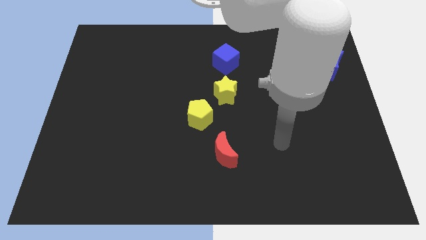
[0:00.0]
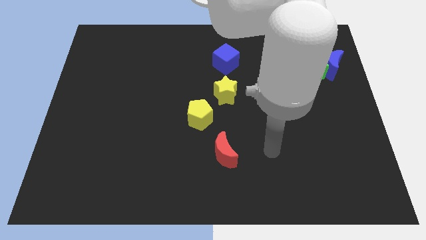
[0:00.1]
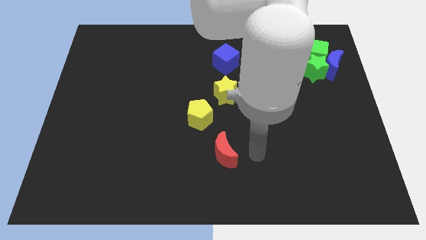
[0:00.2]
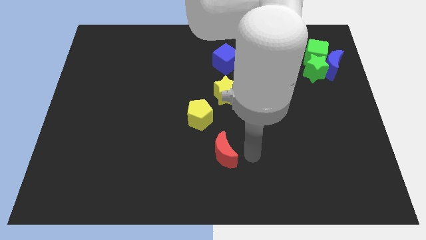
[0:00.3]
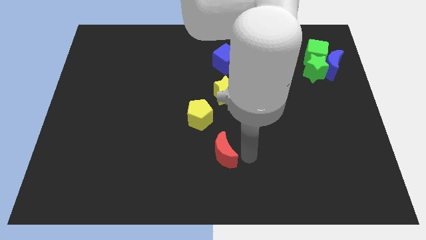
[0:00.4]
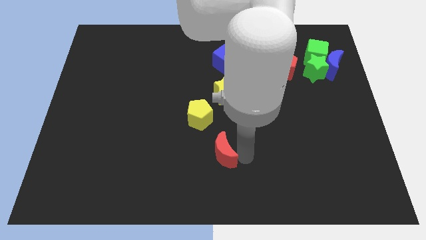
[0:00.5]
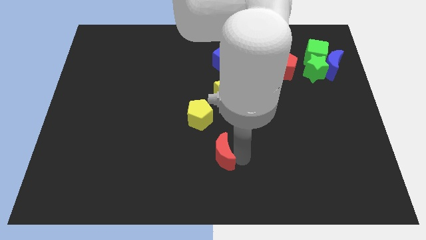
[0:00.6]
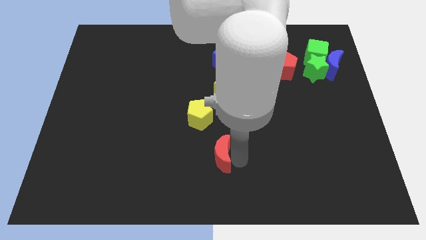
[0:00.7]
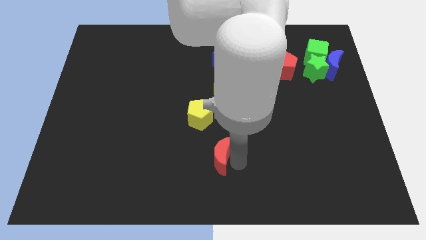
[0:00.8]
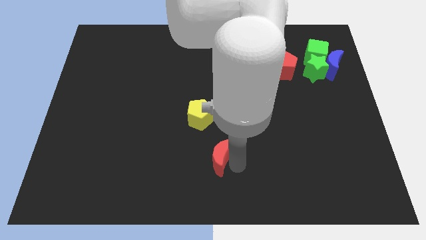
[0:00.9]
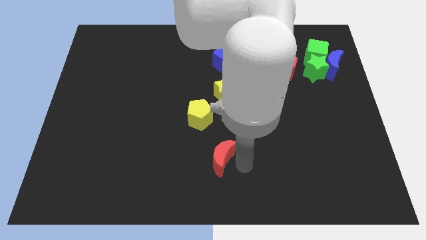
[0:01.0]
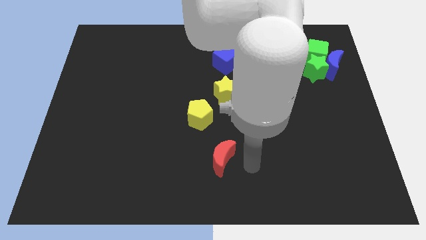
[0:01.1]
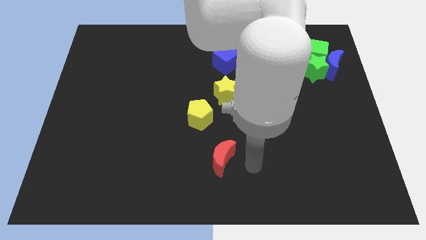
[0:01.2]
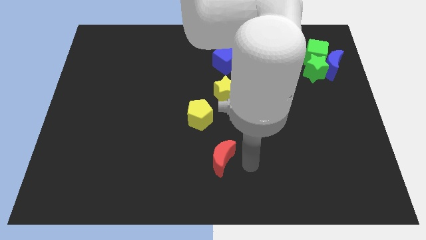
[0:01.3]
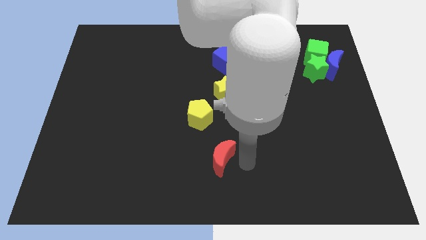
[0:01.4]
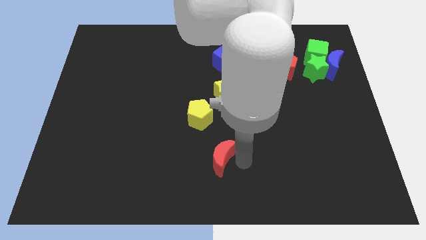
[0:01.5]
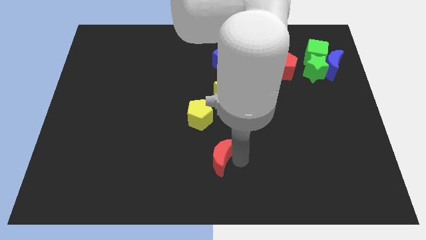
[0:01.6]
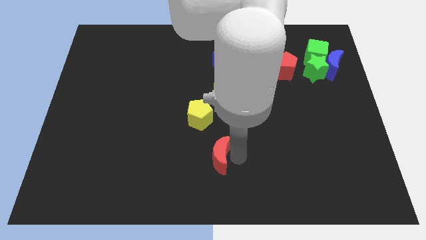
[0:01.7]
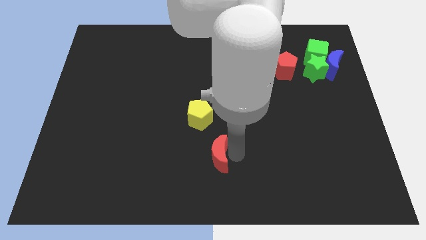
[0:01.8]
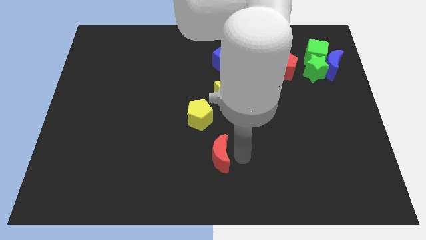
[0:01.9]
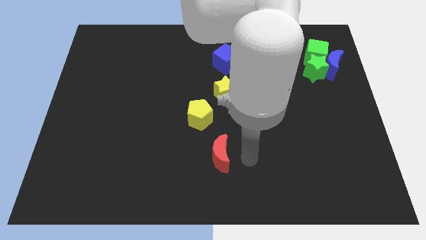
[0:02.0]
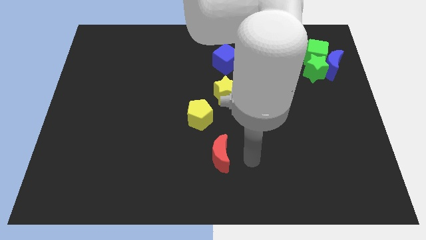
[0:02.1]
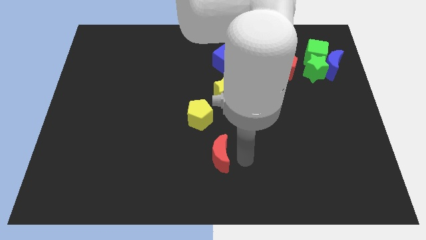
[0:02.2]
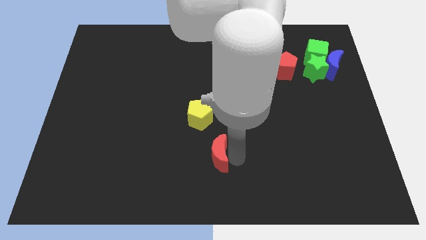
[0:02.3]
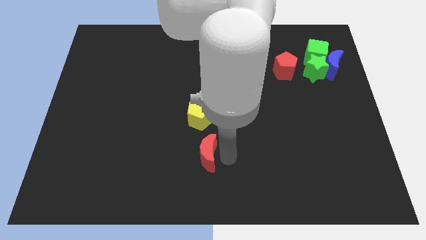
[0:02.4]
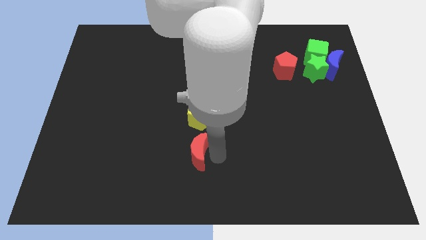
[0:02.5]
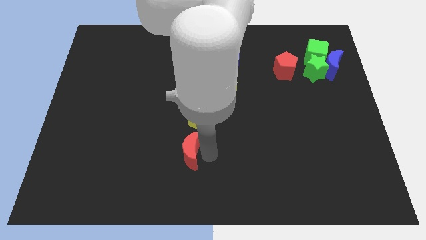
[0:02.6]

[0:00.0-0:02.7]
slide the red moon a little left

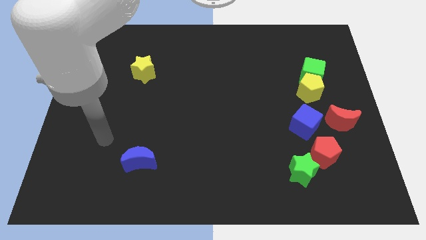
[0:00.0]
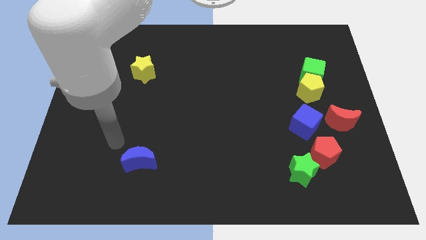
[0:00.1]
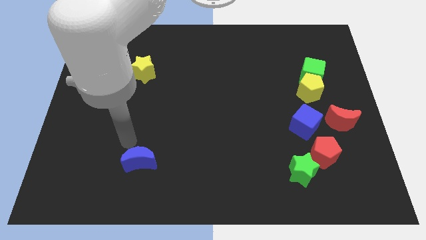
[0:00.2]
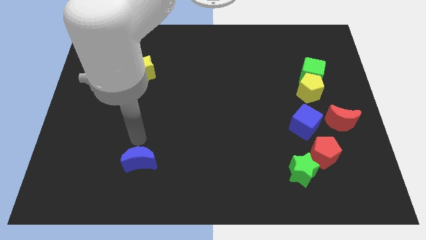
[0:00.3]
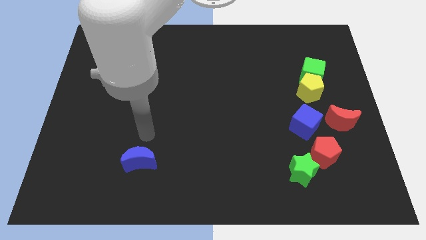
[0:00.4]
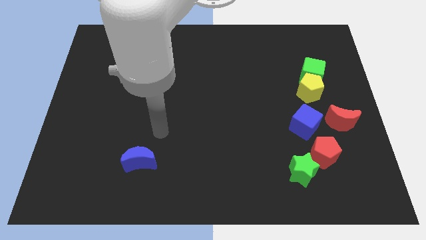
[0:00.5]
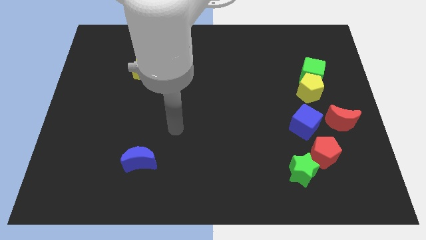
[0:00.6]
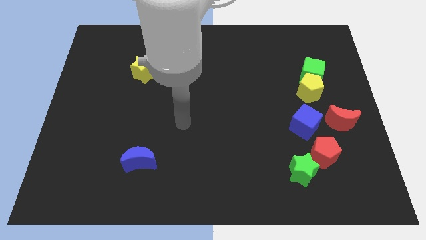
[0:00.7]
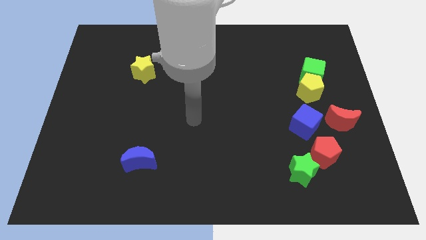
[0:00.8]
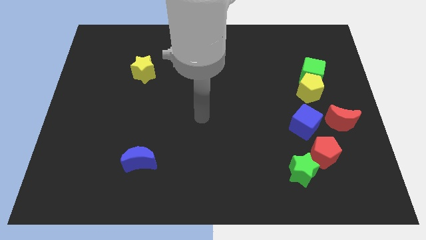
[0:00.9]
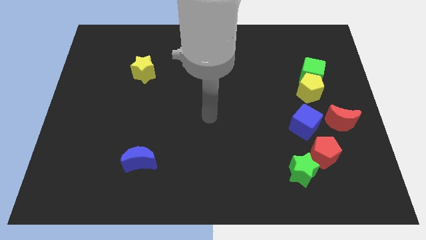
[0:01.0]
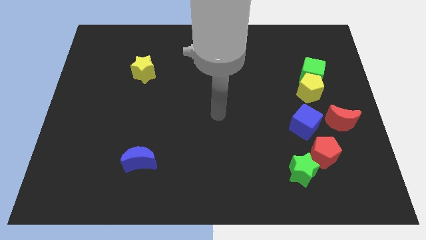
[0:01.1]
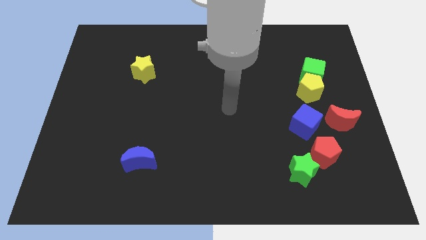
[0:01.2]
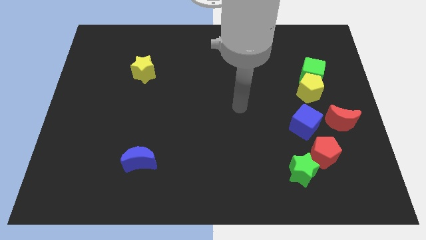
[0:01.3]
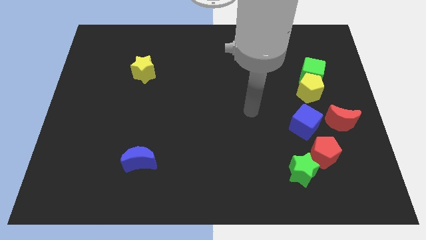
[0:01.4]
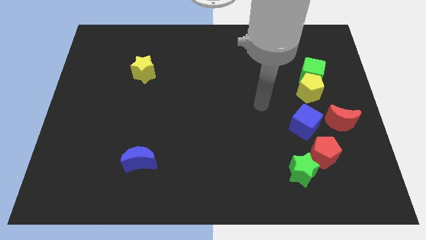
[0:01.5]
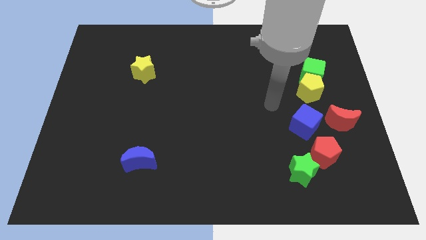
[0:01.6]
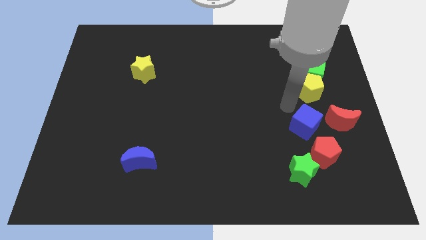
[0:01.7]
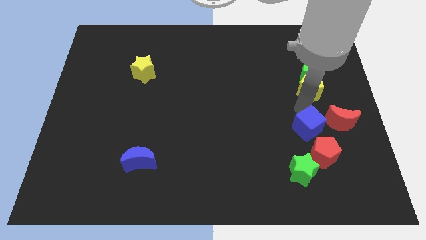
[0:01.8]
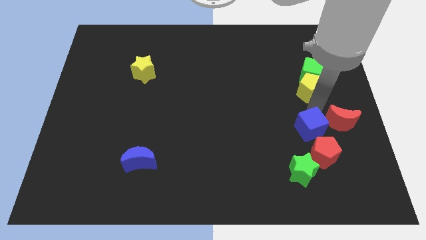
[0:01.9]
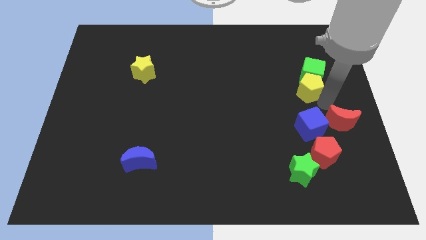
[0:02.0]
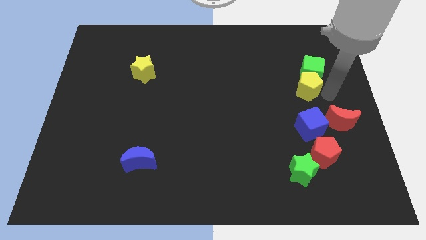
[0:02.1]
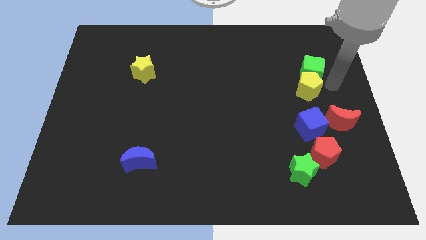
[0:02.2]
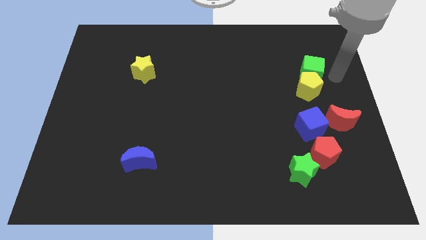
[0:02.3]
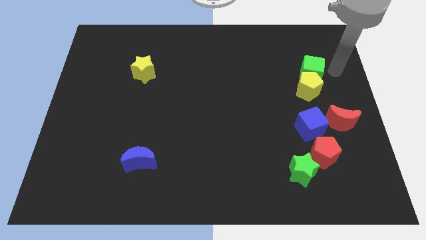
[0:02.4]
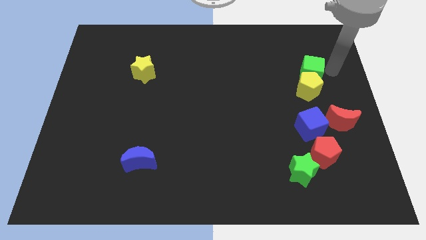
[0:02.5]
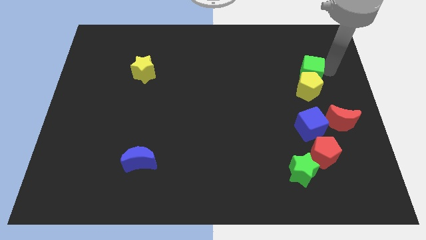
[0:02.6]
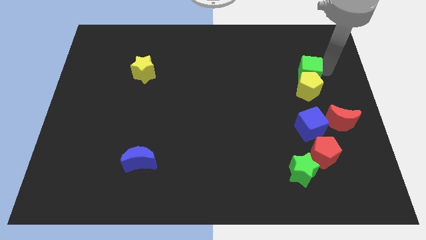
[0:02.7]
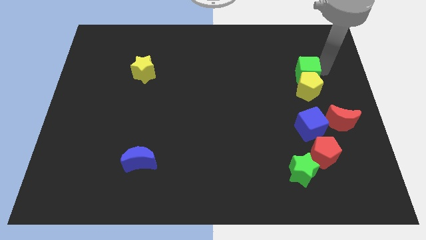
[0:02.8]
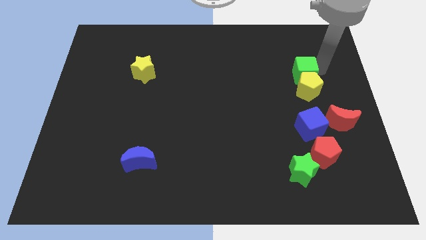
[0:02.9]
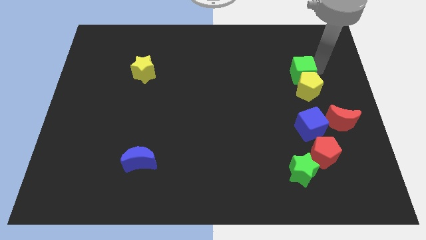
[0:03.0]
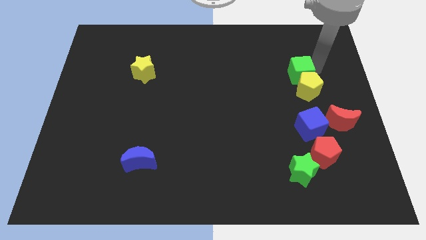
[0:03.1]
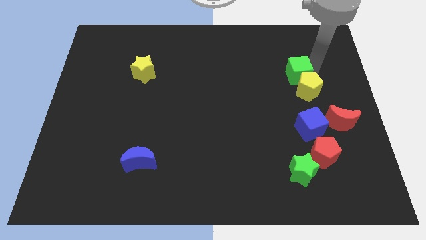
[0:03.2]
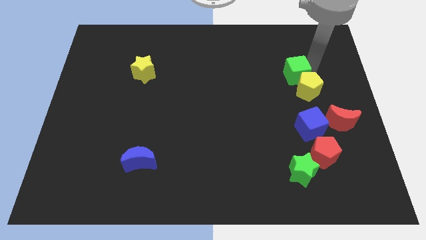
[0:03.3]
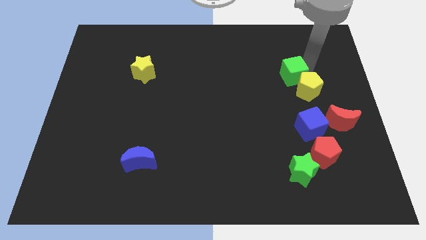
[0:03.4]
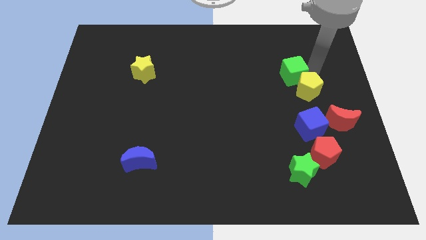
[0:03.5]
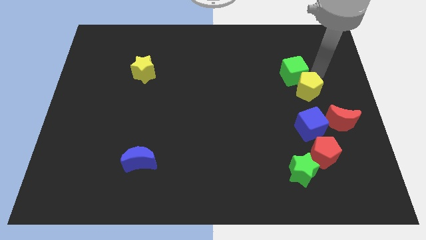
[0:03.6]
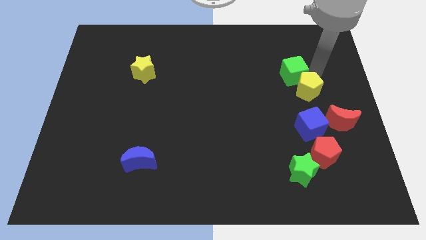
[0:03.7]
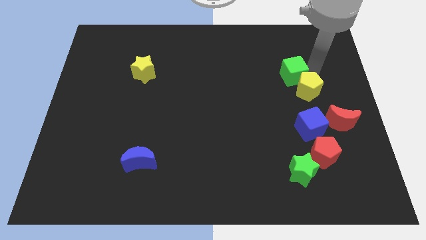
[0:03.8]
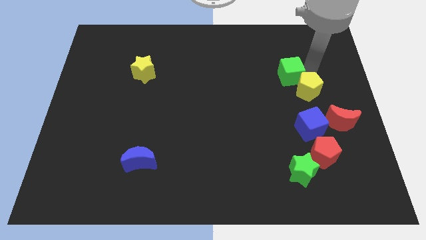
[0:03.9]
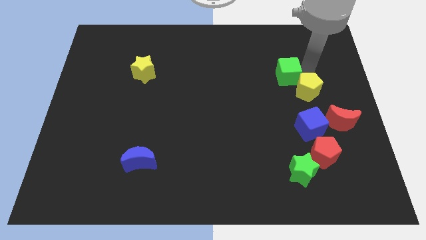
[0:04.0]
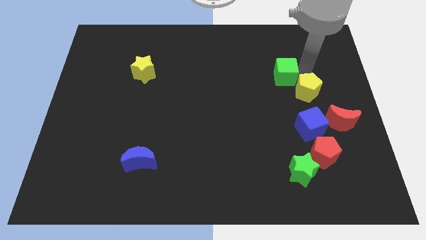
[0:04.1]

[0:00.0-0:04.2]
push the green cube a little bit to the left

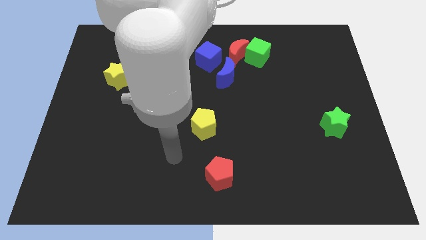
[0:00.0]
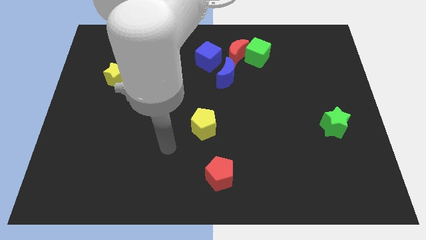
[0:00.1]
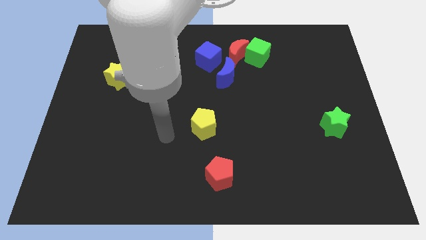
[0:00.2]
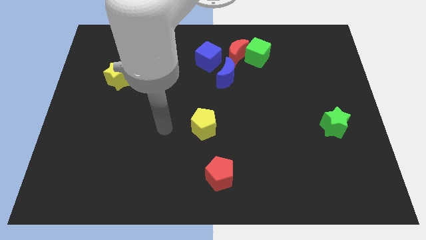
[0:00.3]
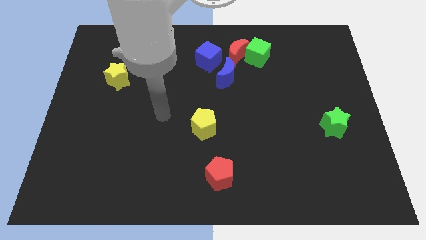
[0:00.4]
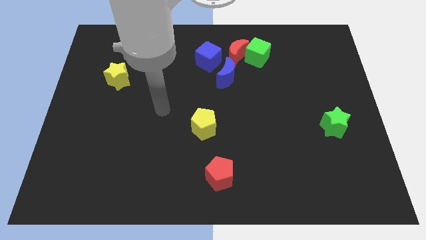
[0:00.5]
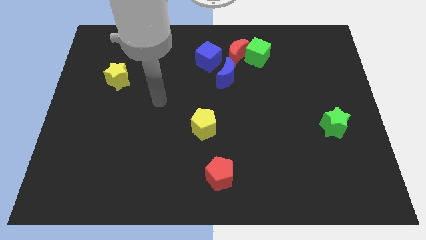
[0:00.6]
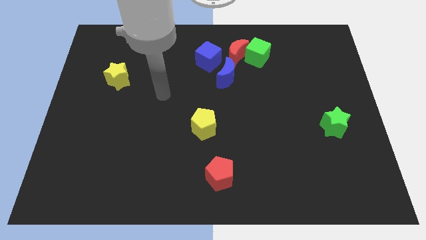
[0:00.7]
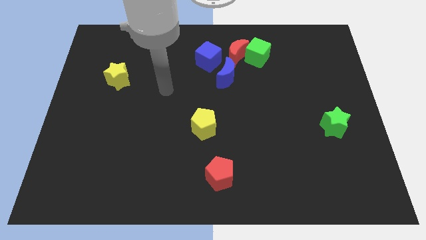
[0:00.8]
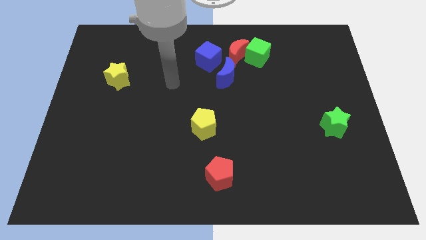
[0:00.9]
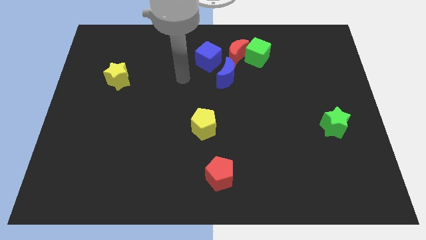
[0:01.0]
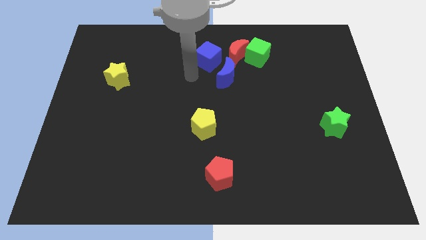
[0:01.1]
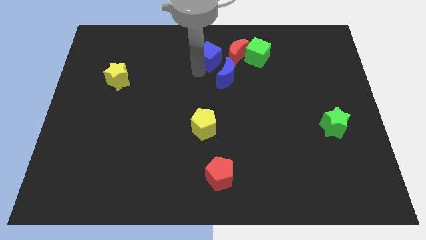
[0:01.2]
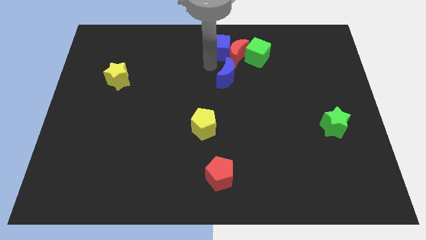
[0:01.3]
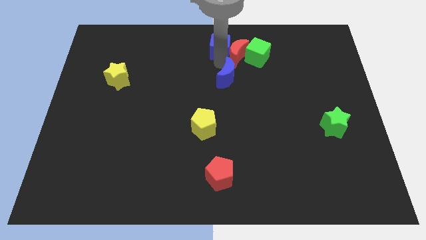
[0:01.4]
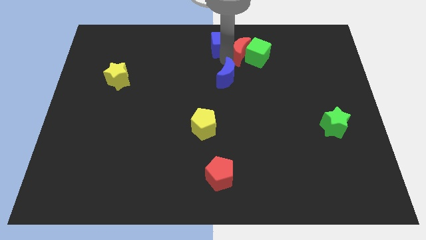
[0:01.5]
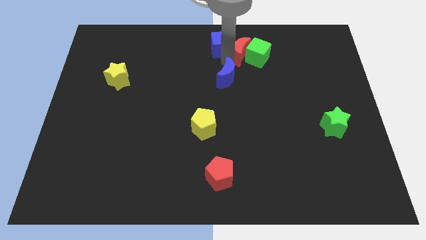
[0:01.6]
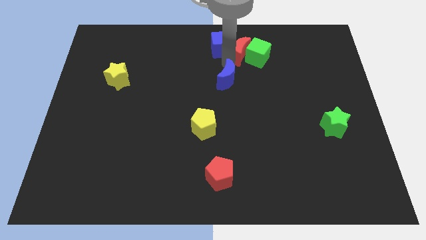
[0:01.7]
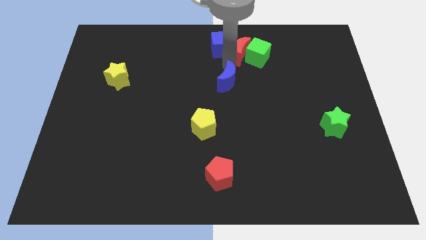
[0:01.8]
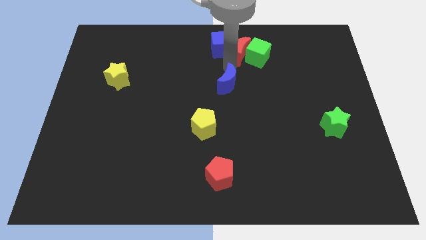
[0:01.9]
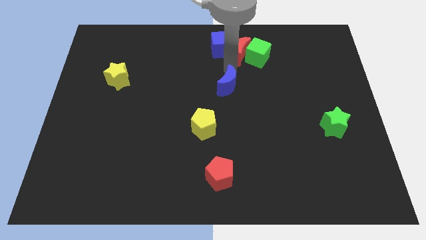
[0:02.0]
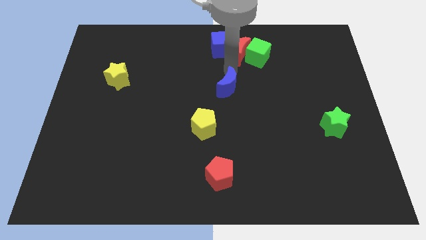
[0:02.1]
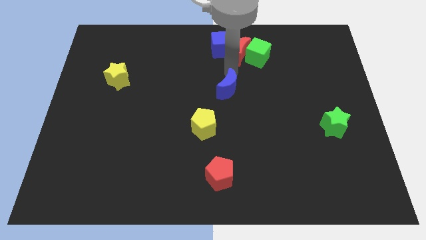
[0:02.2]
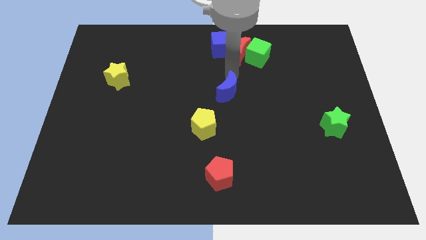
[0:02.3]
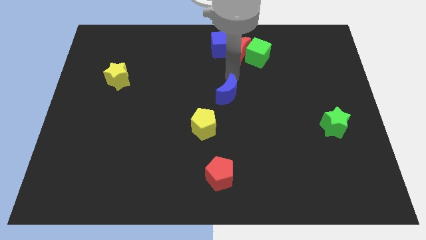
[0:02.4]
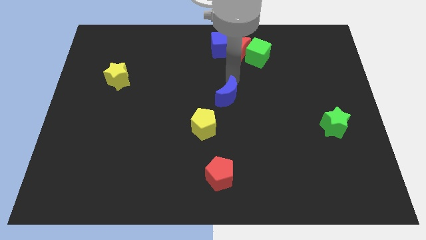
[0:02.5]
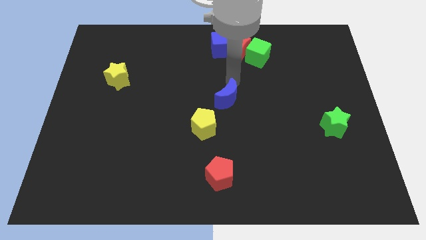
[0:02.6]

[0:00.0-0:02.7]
slightly slide the blue moon downwards
